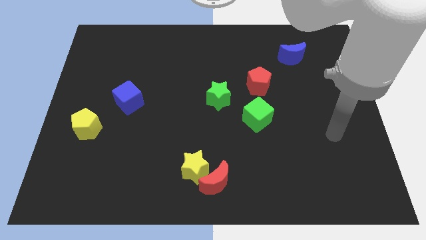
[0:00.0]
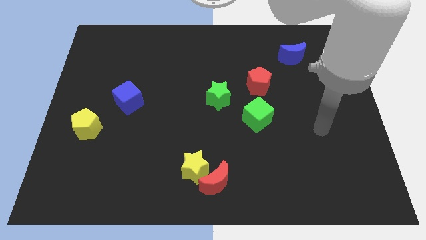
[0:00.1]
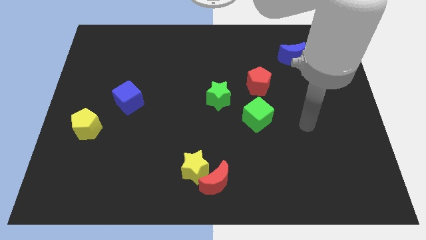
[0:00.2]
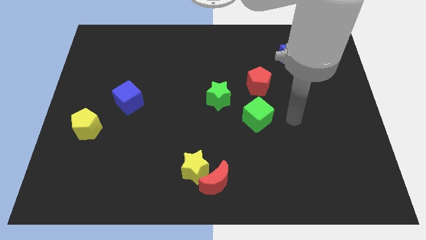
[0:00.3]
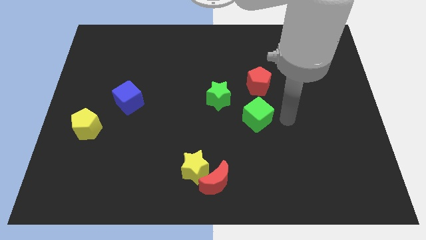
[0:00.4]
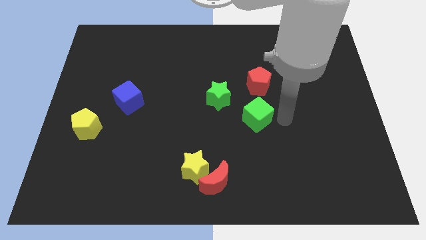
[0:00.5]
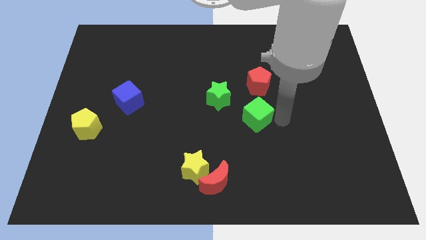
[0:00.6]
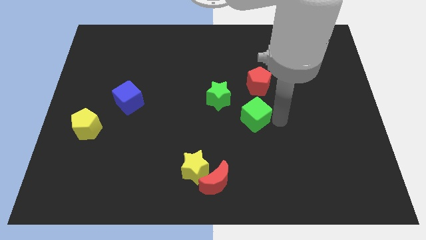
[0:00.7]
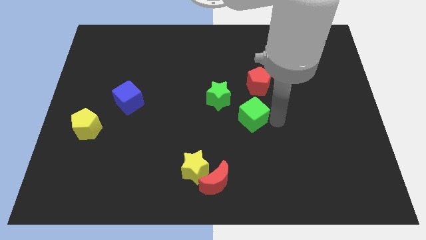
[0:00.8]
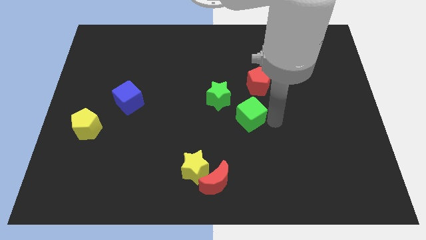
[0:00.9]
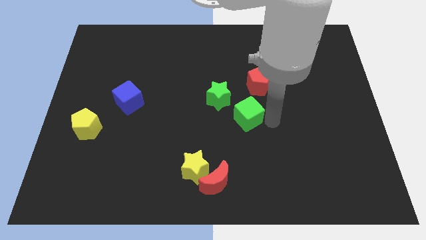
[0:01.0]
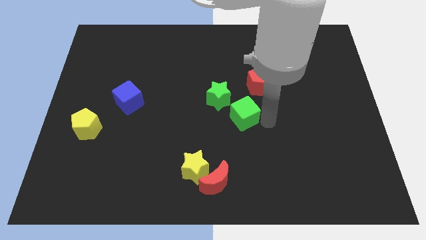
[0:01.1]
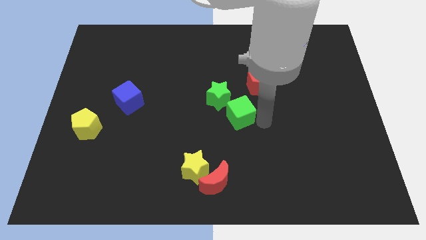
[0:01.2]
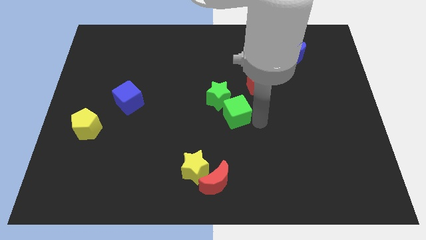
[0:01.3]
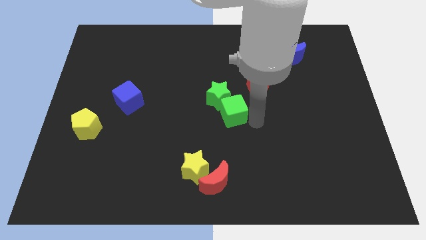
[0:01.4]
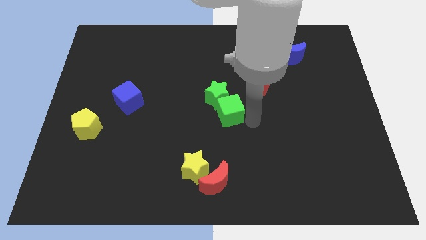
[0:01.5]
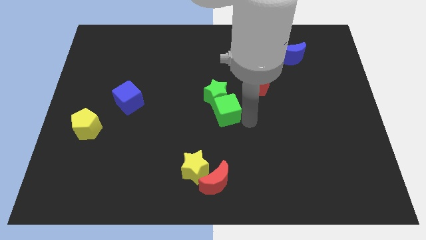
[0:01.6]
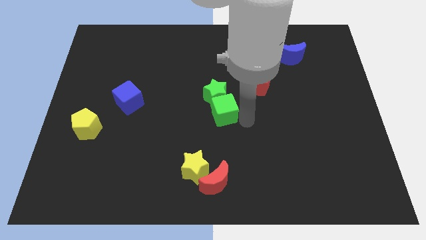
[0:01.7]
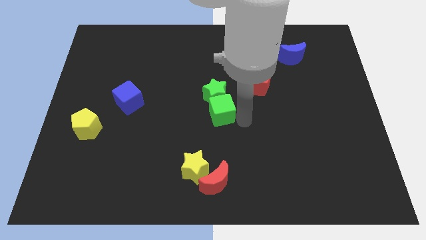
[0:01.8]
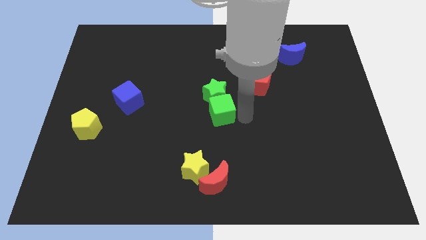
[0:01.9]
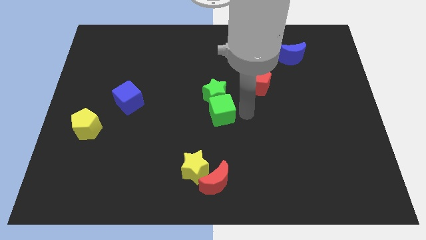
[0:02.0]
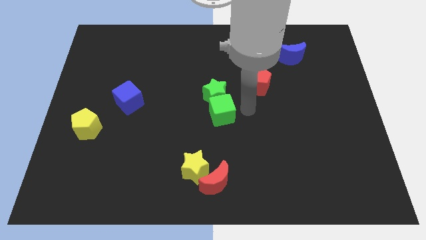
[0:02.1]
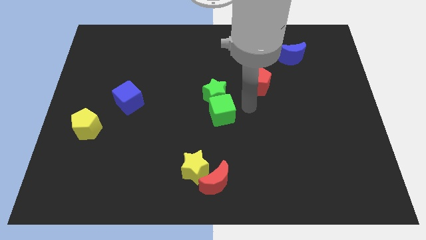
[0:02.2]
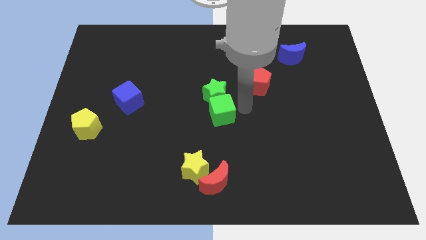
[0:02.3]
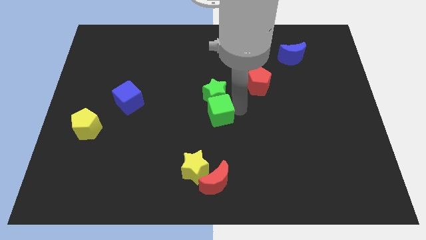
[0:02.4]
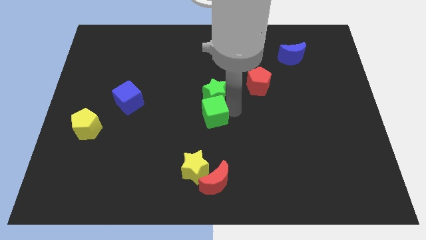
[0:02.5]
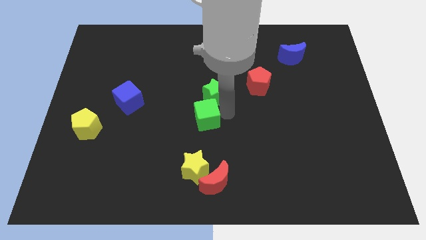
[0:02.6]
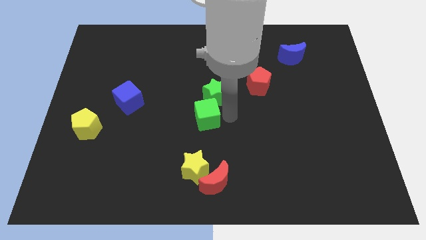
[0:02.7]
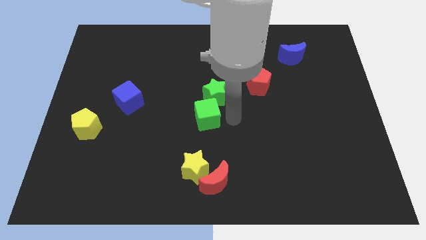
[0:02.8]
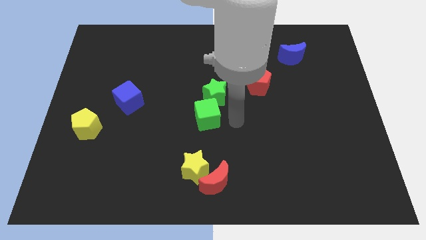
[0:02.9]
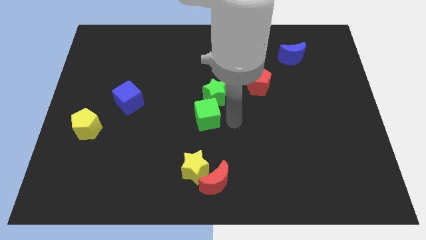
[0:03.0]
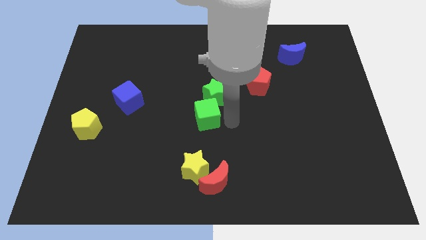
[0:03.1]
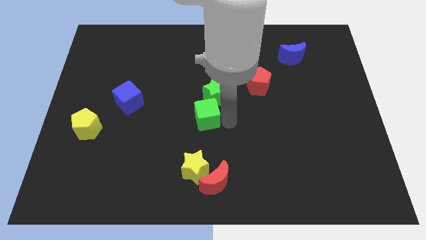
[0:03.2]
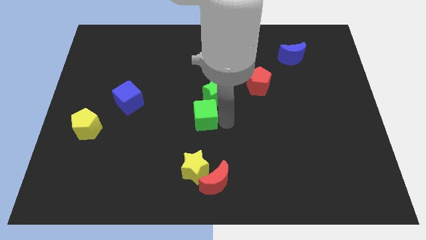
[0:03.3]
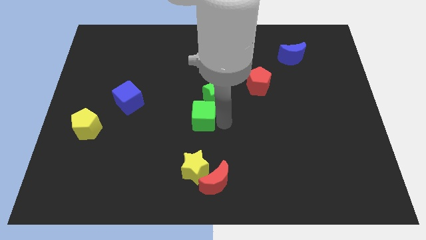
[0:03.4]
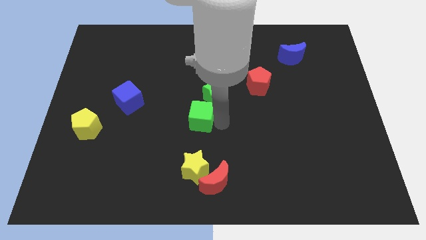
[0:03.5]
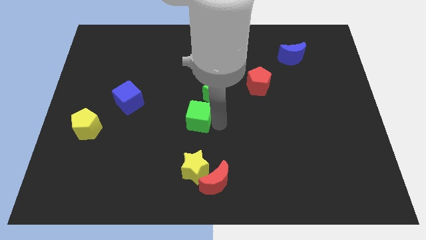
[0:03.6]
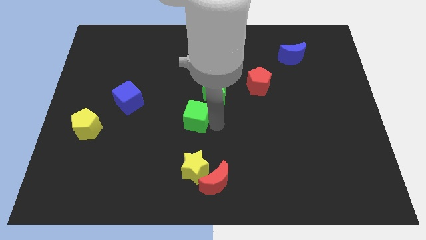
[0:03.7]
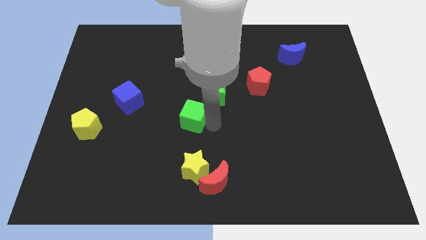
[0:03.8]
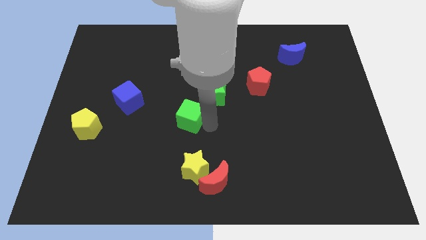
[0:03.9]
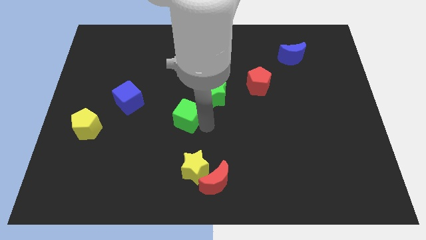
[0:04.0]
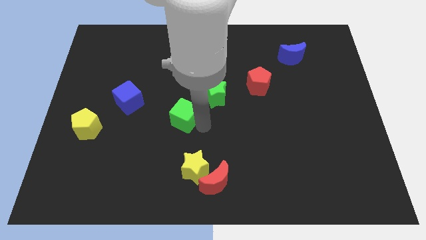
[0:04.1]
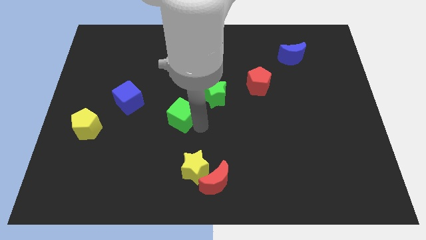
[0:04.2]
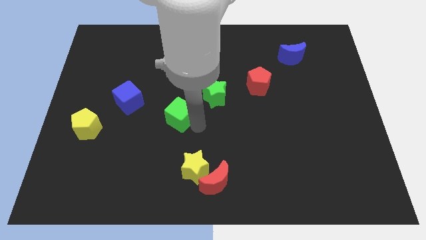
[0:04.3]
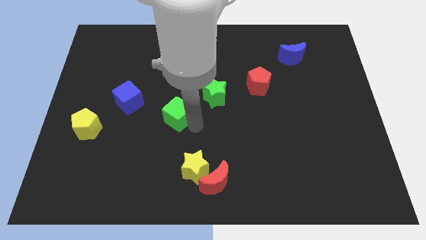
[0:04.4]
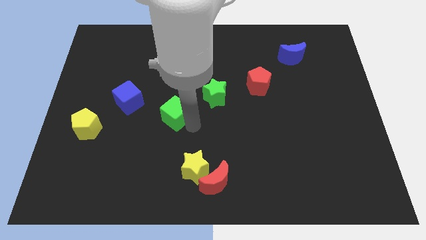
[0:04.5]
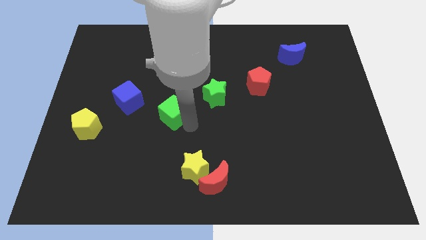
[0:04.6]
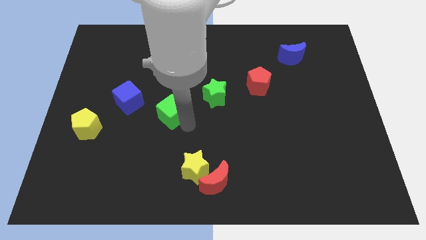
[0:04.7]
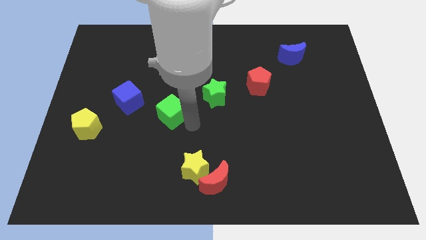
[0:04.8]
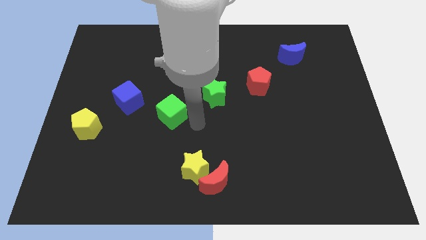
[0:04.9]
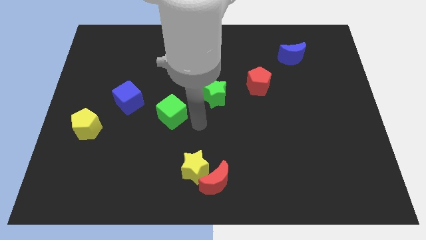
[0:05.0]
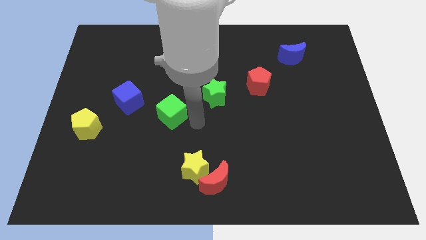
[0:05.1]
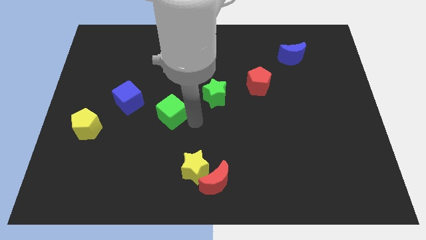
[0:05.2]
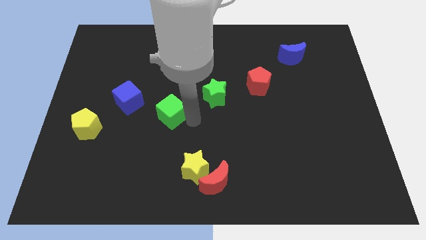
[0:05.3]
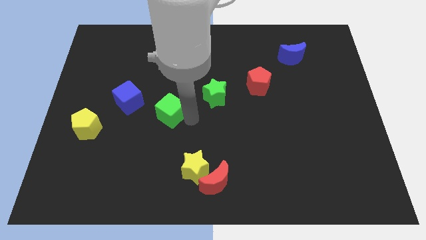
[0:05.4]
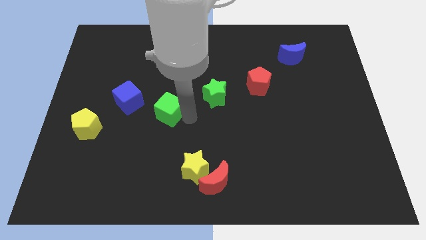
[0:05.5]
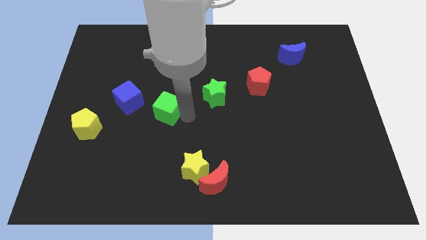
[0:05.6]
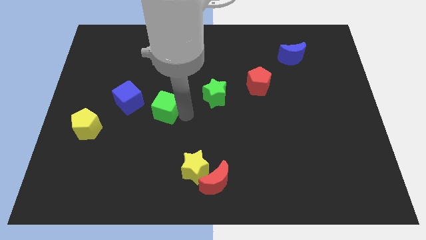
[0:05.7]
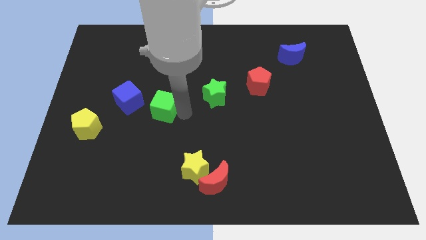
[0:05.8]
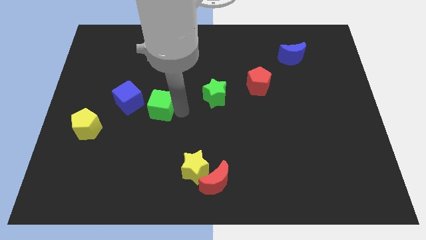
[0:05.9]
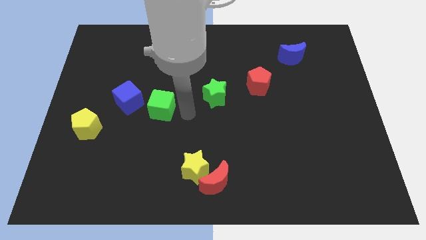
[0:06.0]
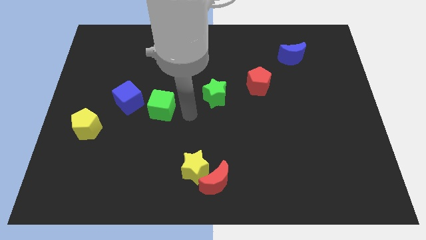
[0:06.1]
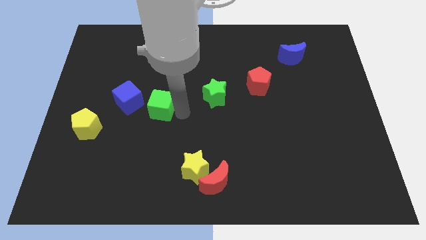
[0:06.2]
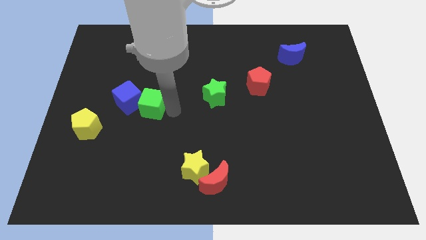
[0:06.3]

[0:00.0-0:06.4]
push the green cube next to the blue cube
